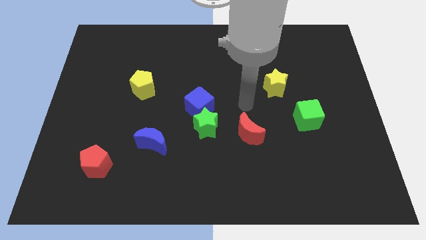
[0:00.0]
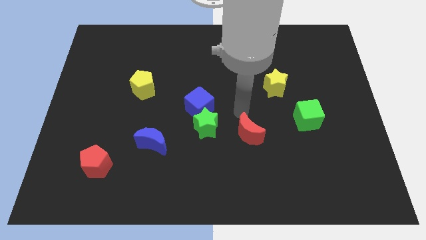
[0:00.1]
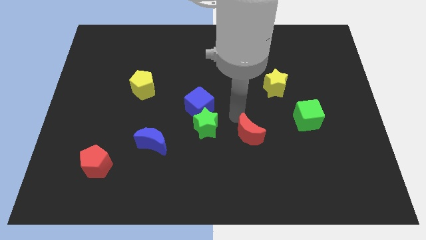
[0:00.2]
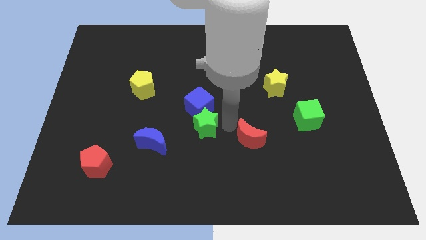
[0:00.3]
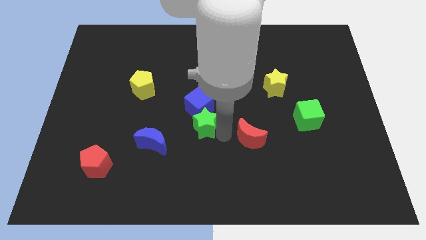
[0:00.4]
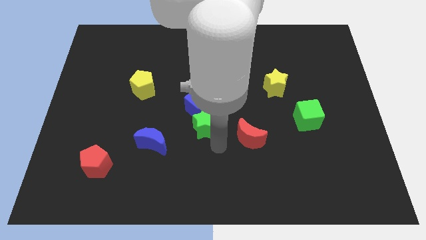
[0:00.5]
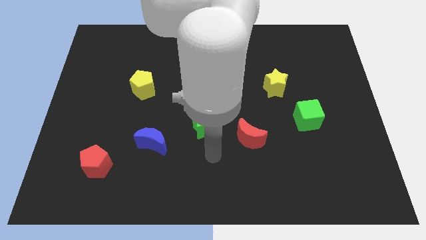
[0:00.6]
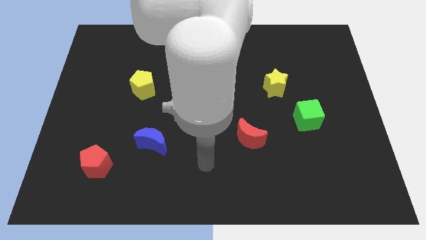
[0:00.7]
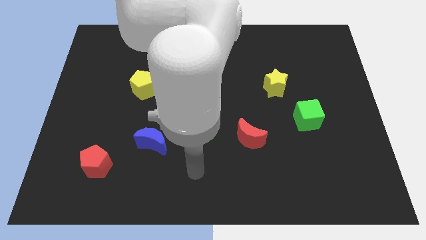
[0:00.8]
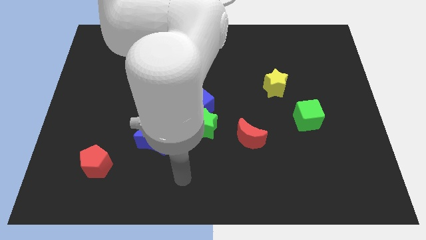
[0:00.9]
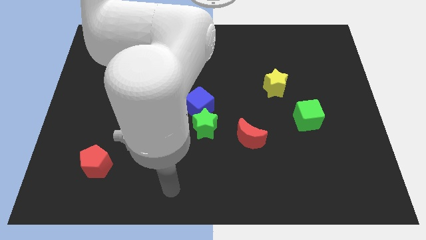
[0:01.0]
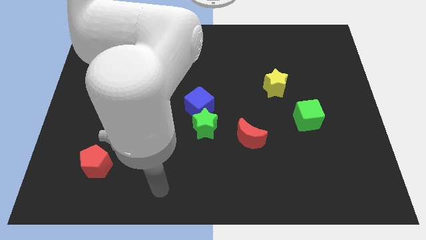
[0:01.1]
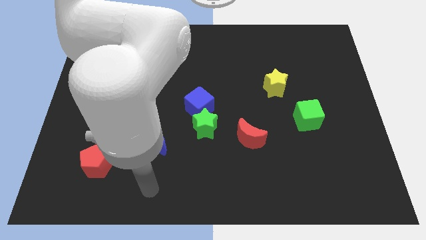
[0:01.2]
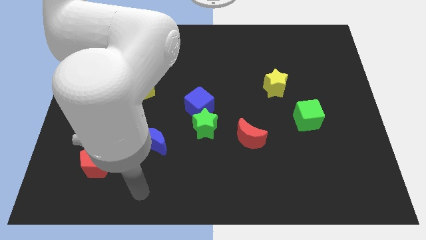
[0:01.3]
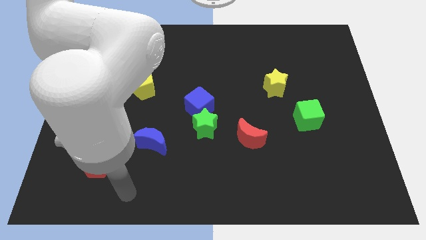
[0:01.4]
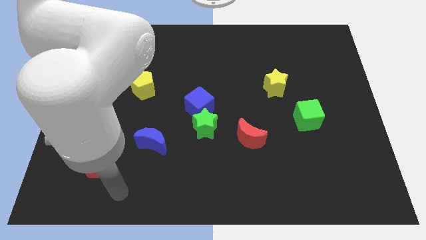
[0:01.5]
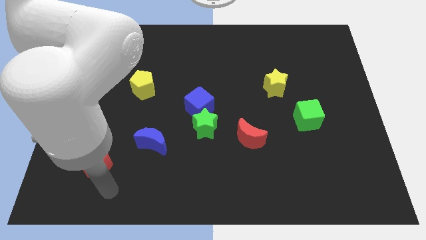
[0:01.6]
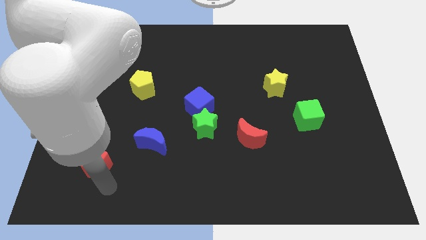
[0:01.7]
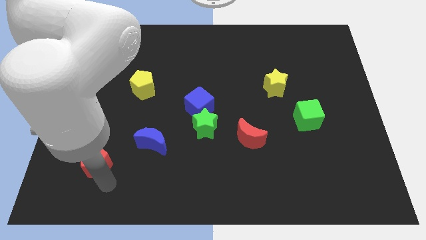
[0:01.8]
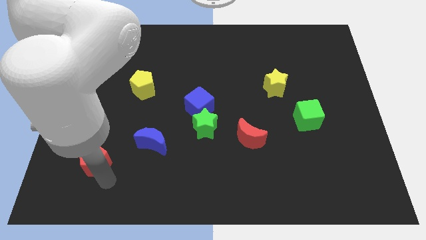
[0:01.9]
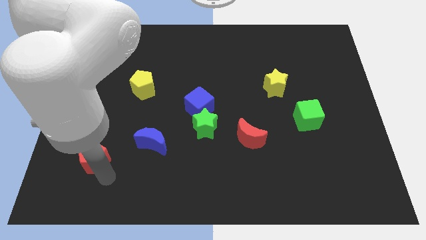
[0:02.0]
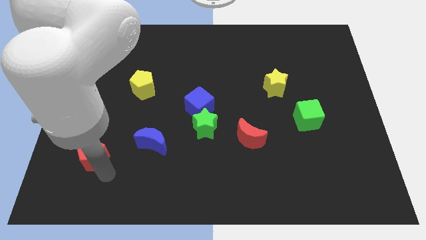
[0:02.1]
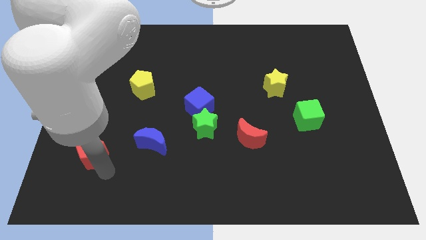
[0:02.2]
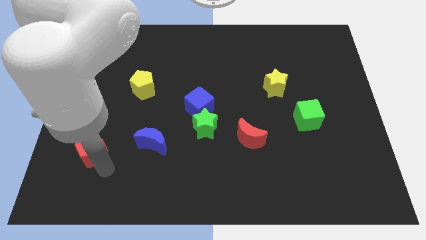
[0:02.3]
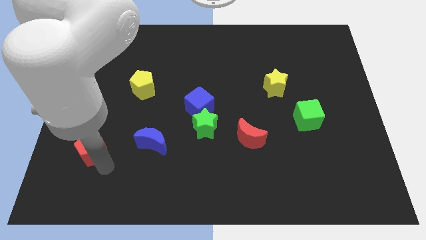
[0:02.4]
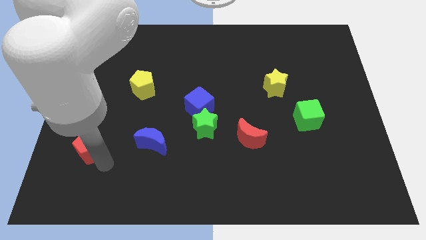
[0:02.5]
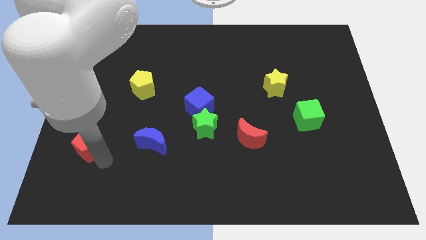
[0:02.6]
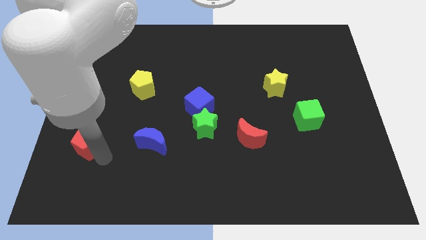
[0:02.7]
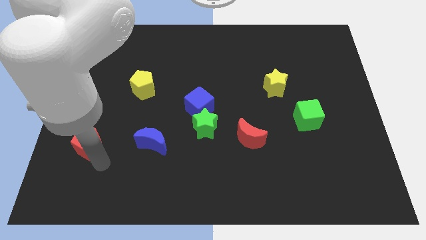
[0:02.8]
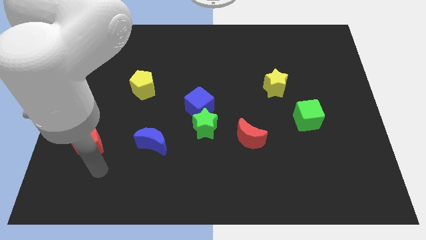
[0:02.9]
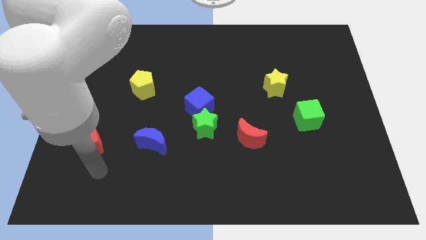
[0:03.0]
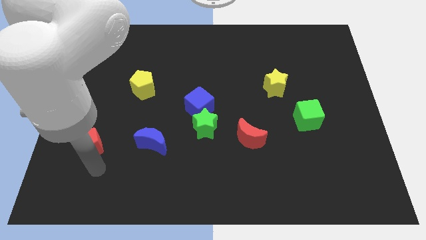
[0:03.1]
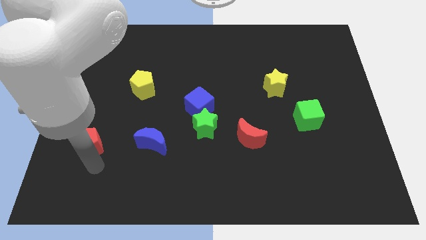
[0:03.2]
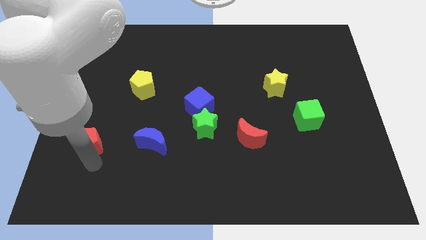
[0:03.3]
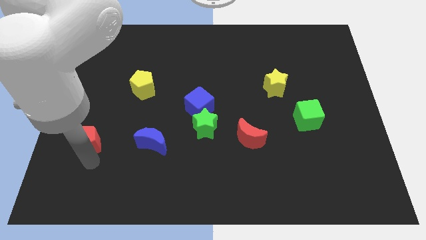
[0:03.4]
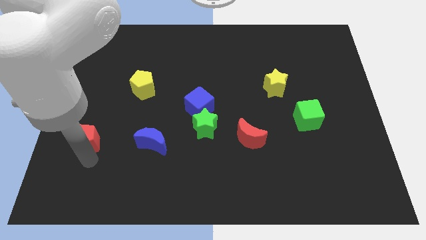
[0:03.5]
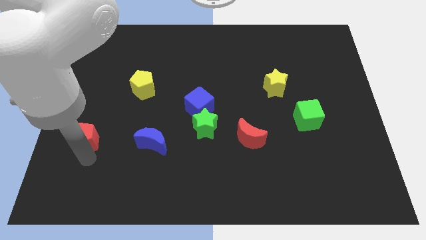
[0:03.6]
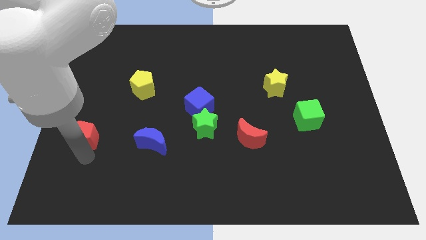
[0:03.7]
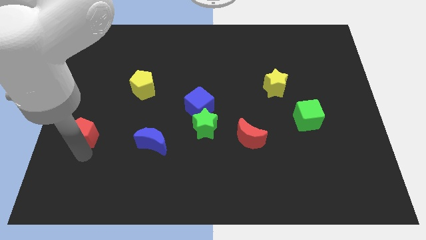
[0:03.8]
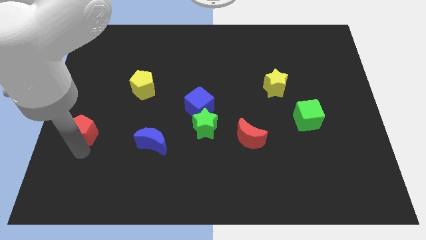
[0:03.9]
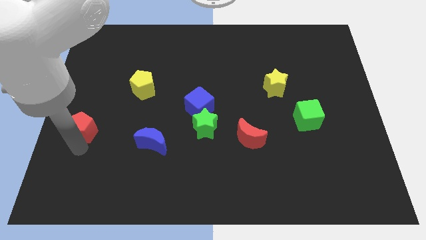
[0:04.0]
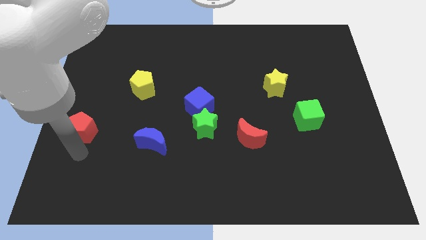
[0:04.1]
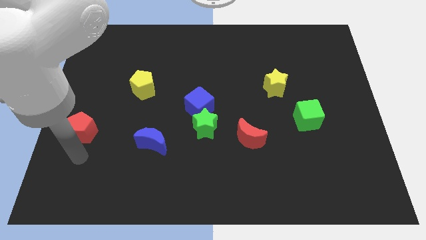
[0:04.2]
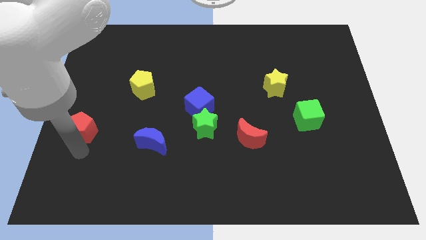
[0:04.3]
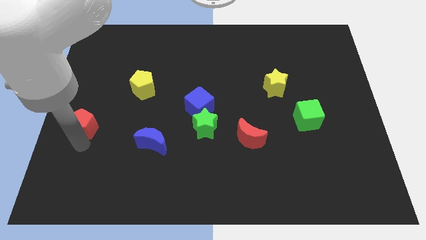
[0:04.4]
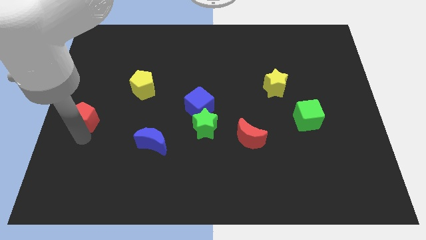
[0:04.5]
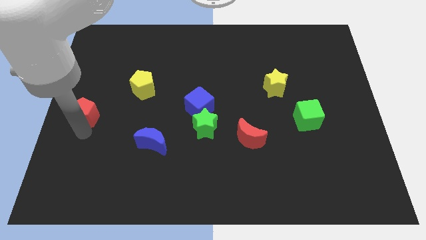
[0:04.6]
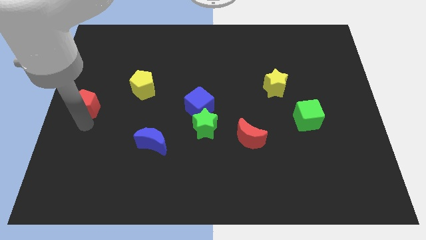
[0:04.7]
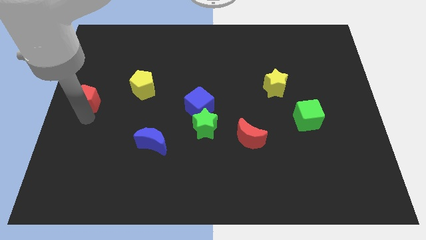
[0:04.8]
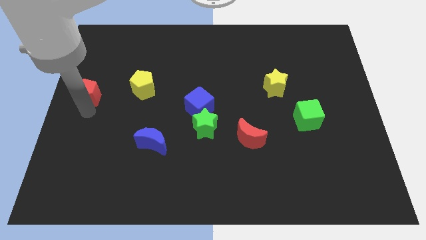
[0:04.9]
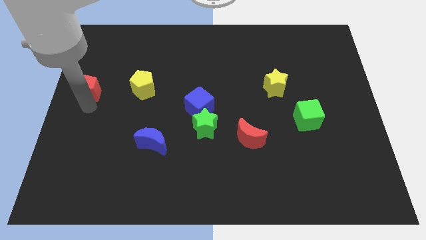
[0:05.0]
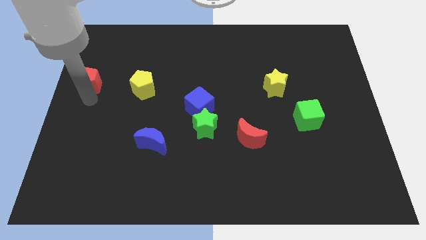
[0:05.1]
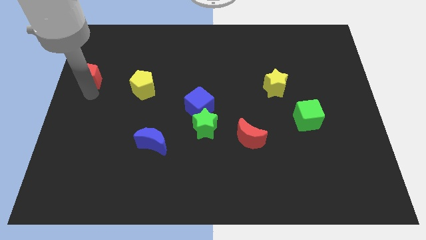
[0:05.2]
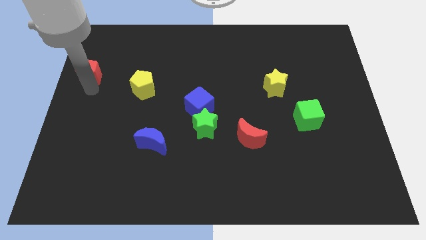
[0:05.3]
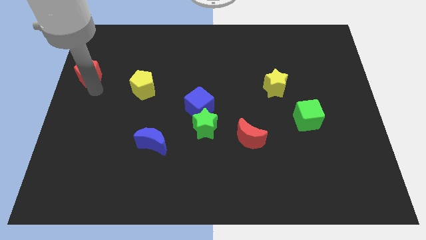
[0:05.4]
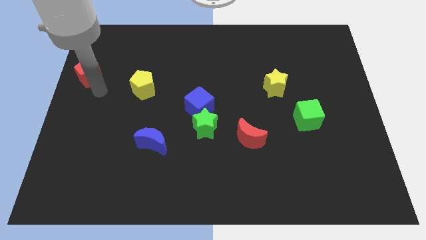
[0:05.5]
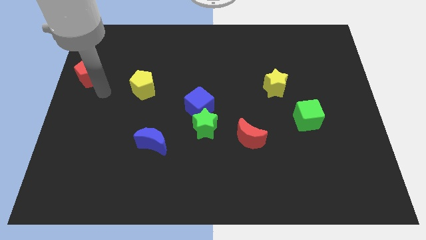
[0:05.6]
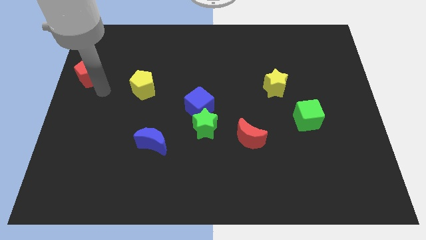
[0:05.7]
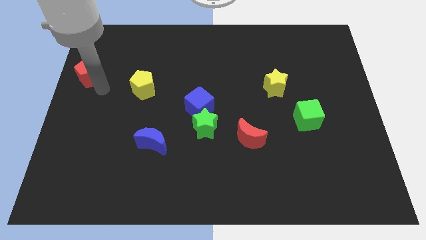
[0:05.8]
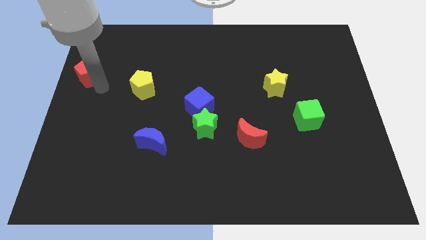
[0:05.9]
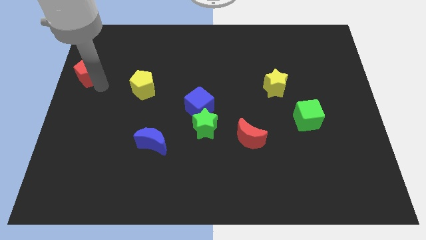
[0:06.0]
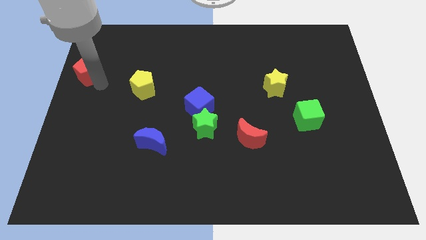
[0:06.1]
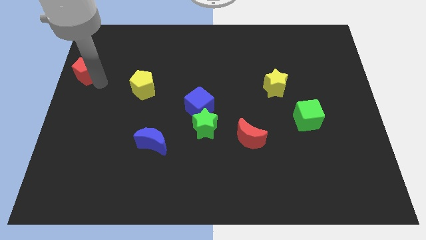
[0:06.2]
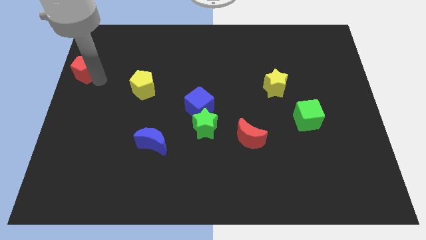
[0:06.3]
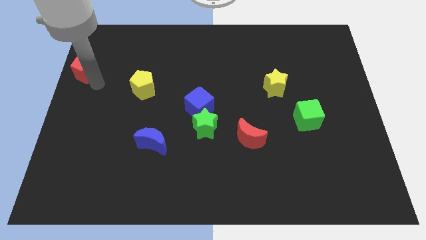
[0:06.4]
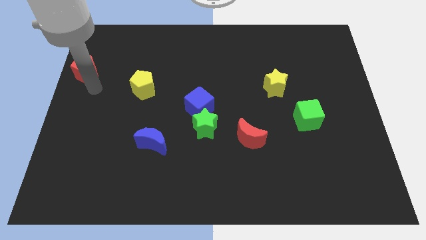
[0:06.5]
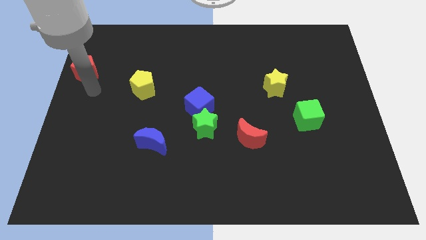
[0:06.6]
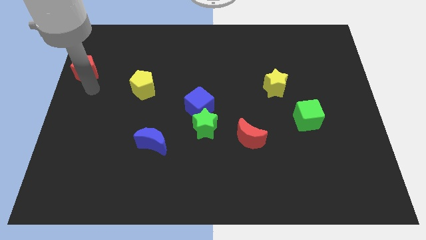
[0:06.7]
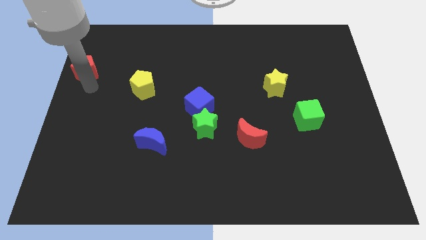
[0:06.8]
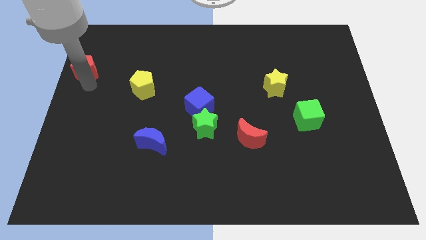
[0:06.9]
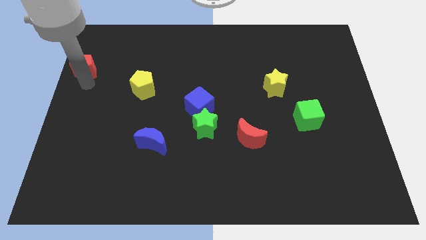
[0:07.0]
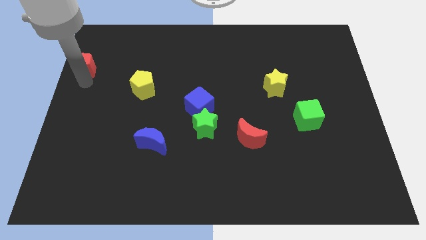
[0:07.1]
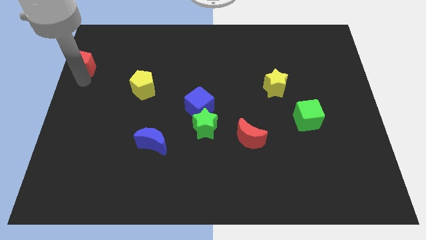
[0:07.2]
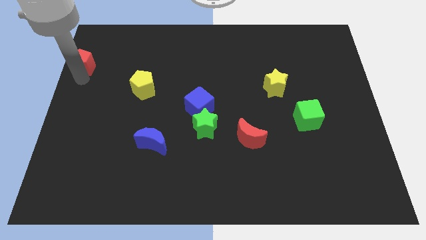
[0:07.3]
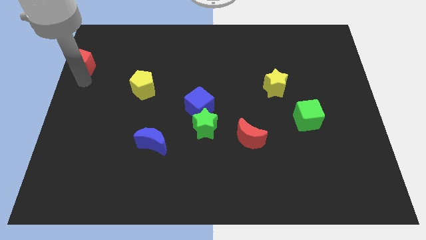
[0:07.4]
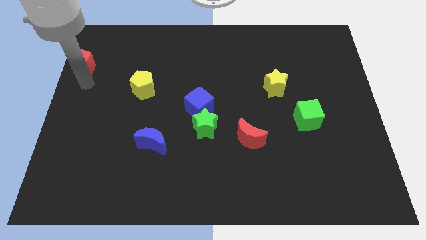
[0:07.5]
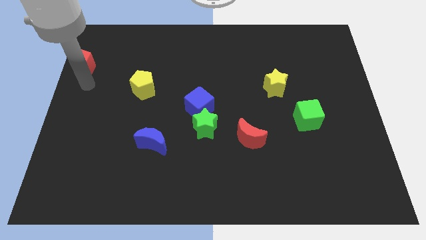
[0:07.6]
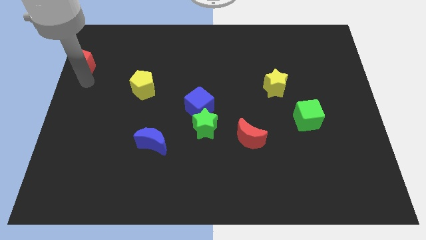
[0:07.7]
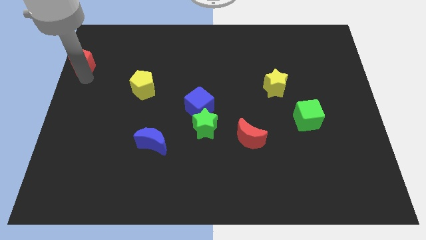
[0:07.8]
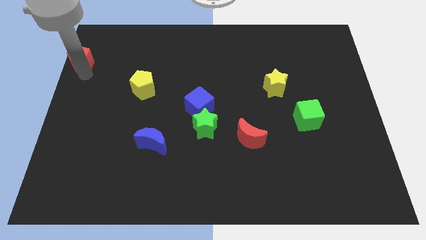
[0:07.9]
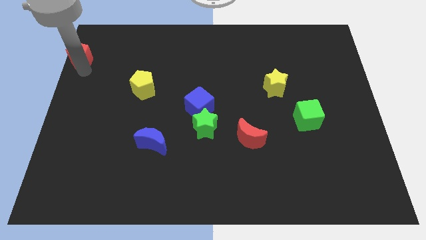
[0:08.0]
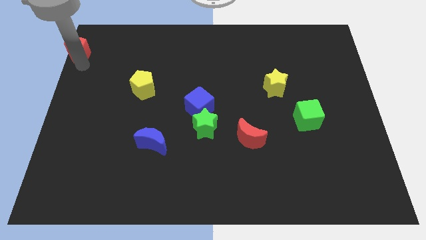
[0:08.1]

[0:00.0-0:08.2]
push the red pentagon to the upper left corner
